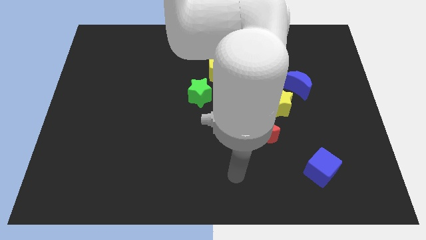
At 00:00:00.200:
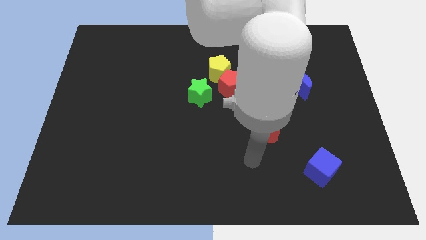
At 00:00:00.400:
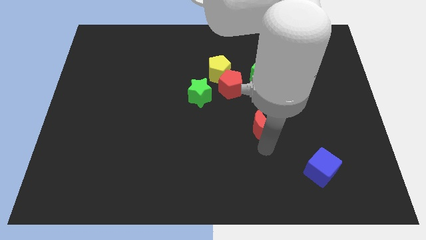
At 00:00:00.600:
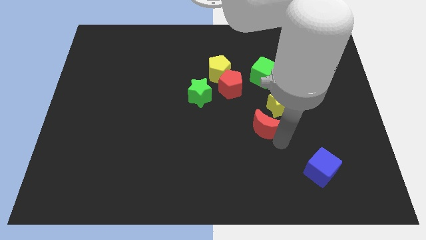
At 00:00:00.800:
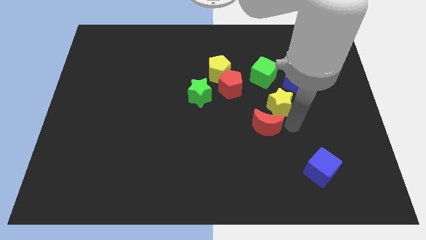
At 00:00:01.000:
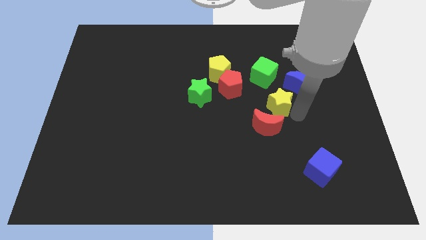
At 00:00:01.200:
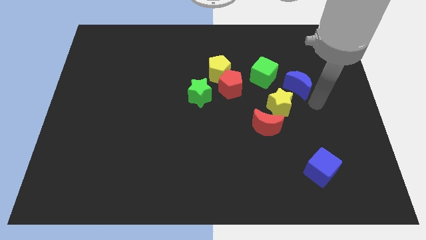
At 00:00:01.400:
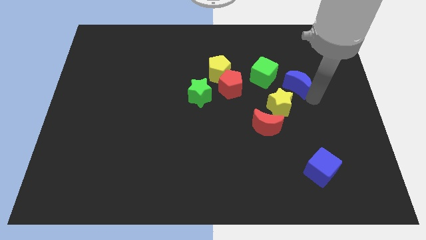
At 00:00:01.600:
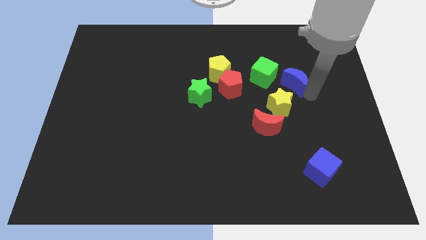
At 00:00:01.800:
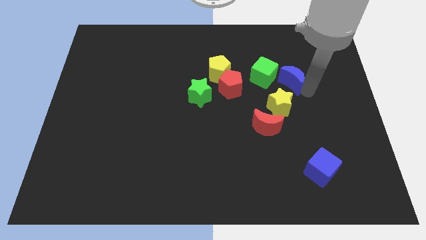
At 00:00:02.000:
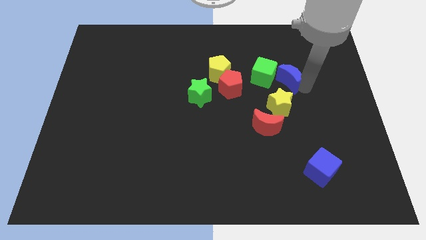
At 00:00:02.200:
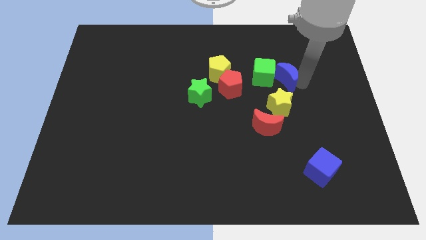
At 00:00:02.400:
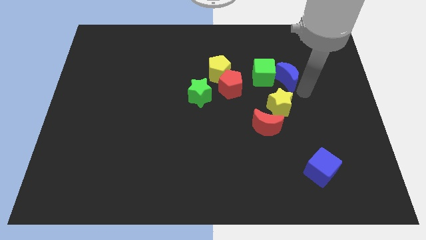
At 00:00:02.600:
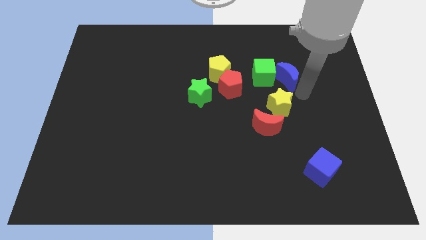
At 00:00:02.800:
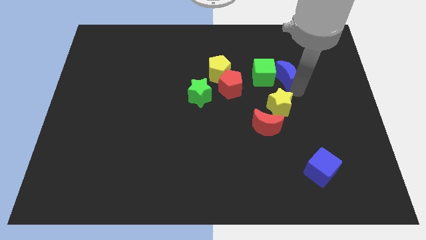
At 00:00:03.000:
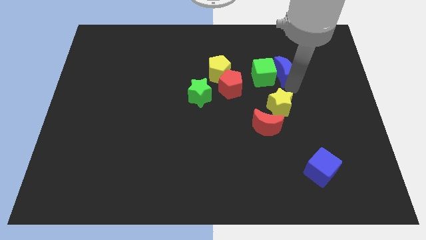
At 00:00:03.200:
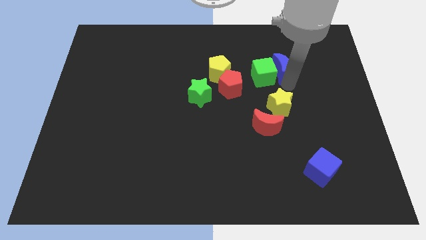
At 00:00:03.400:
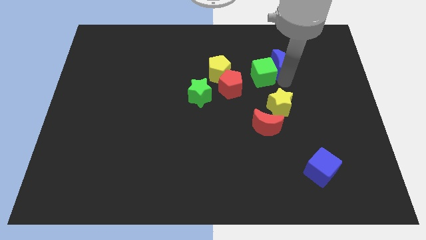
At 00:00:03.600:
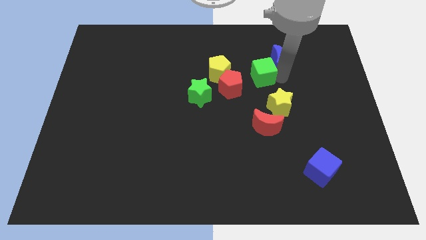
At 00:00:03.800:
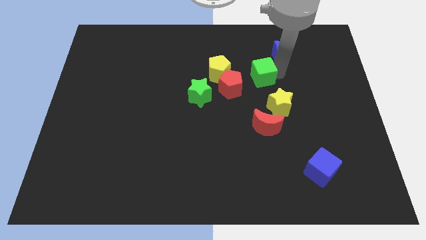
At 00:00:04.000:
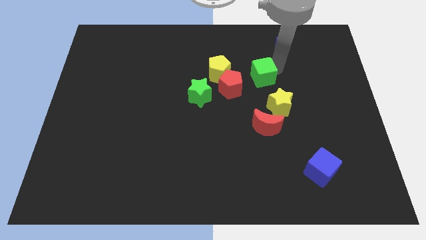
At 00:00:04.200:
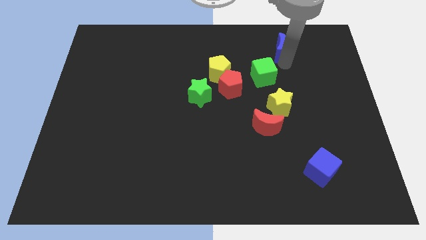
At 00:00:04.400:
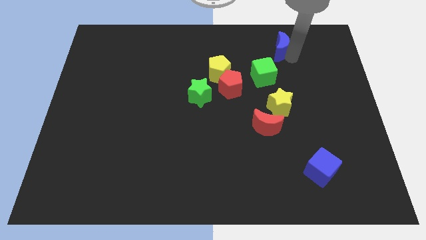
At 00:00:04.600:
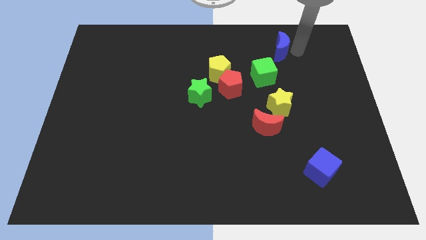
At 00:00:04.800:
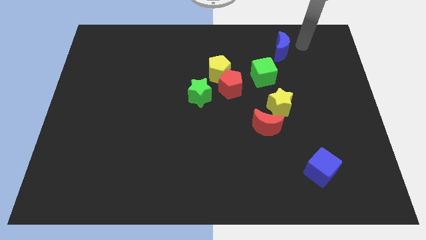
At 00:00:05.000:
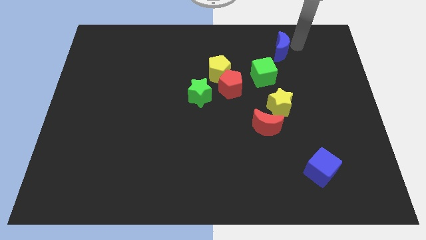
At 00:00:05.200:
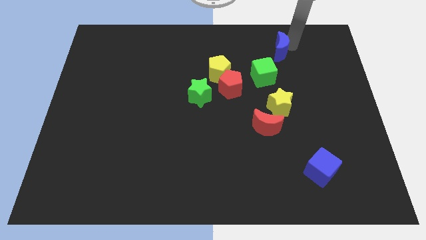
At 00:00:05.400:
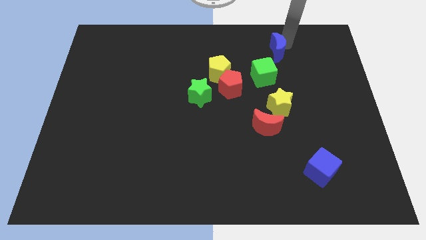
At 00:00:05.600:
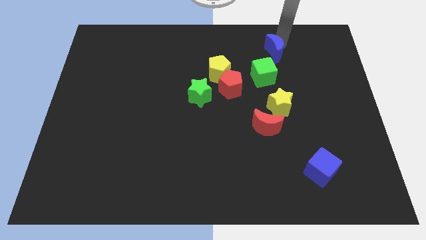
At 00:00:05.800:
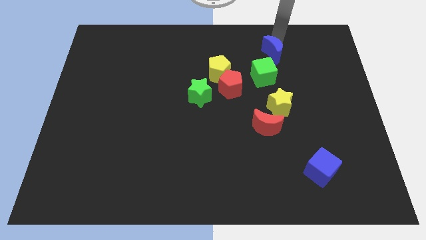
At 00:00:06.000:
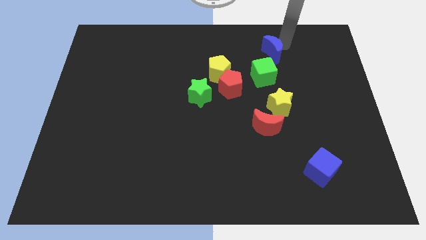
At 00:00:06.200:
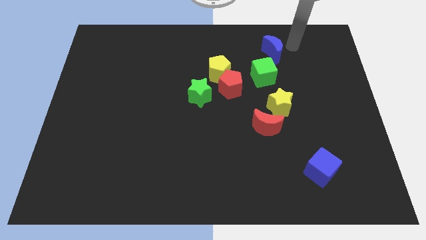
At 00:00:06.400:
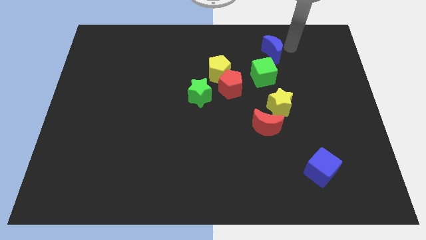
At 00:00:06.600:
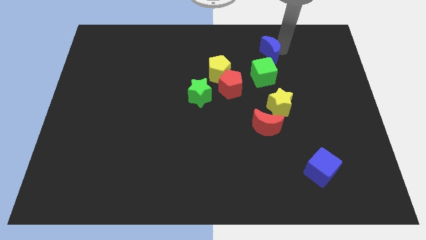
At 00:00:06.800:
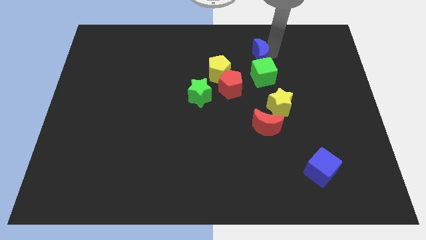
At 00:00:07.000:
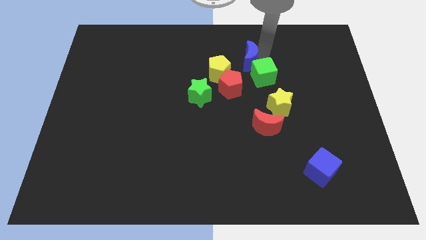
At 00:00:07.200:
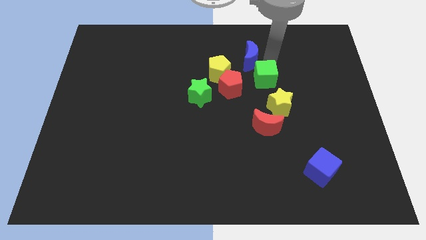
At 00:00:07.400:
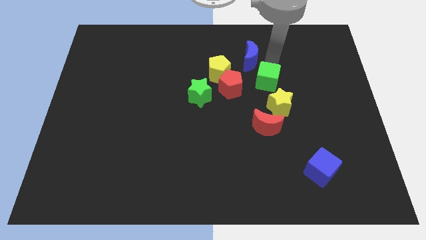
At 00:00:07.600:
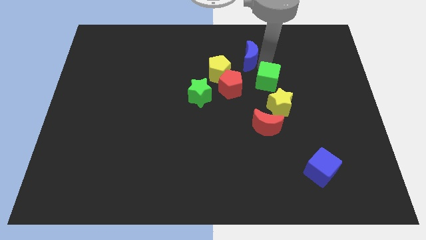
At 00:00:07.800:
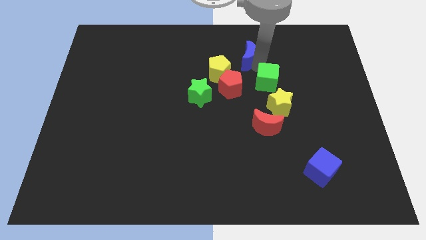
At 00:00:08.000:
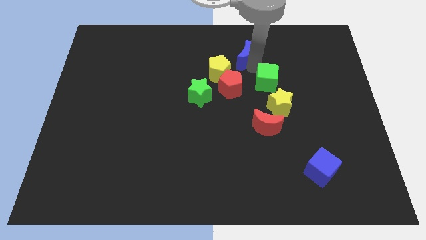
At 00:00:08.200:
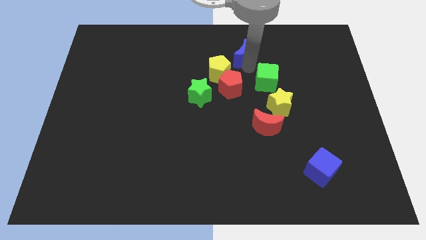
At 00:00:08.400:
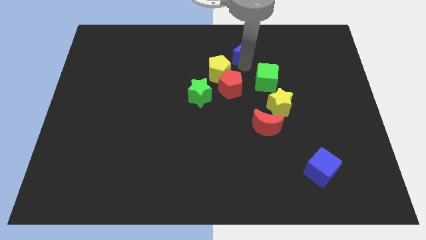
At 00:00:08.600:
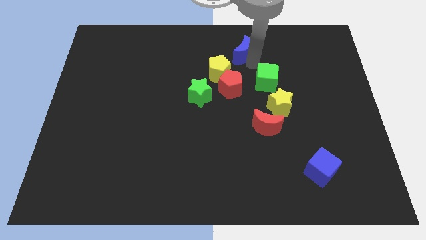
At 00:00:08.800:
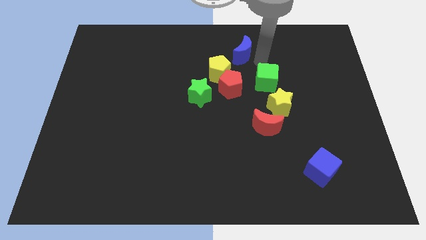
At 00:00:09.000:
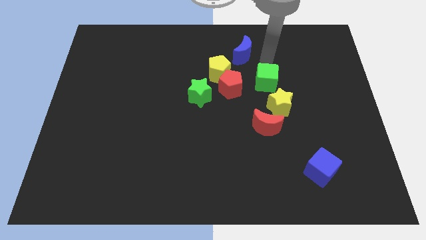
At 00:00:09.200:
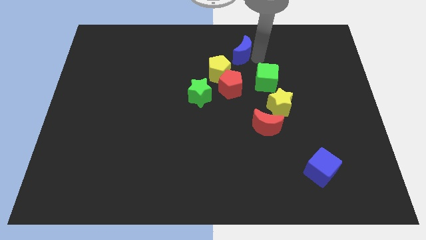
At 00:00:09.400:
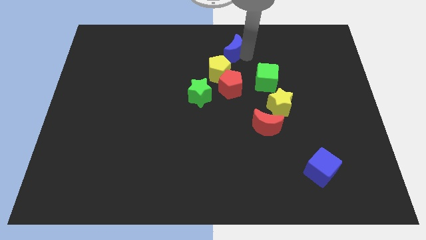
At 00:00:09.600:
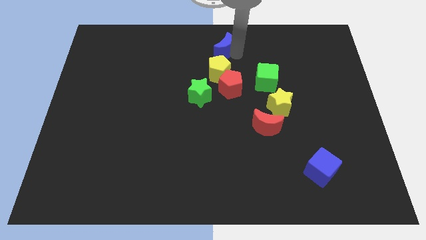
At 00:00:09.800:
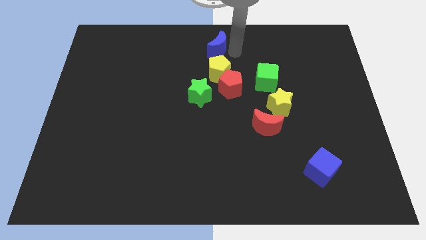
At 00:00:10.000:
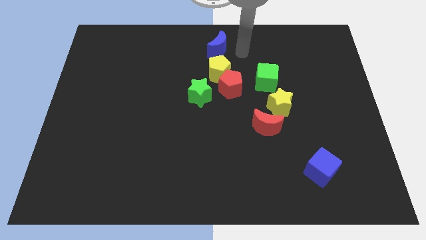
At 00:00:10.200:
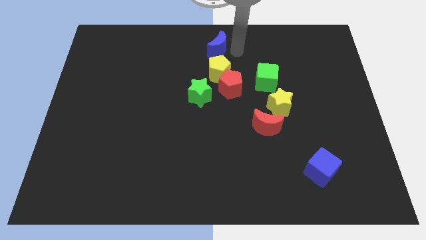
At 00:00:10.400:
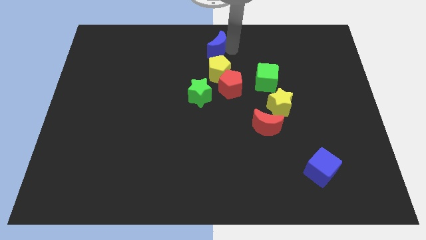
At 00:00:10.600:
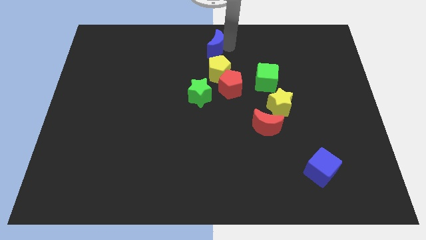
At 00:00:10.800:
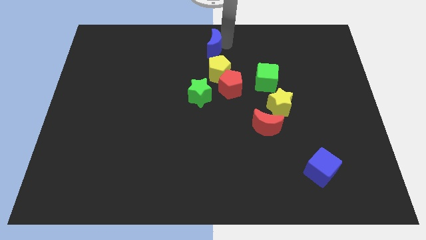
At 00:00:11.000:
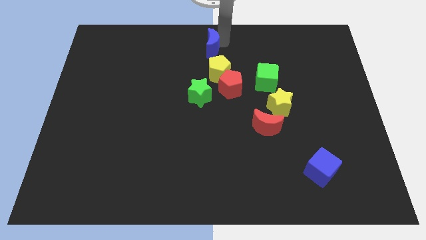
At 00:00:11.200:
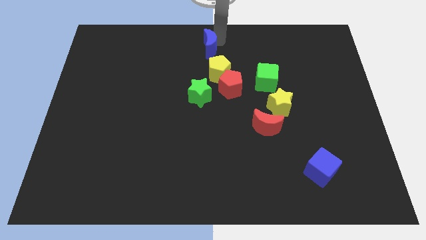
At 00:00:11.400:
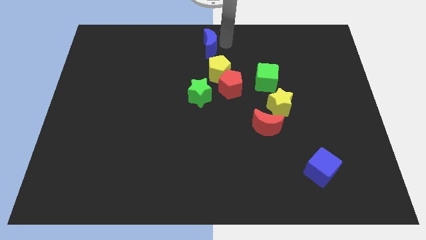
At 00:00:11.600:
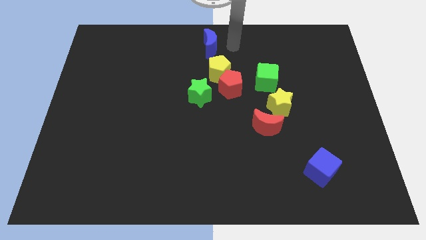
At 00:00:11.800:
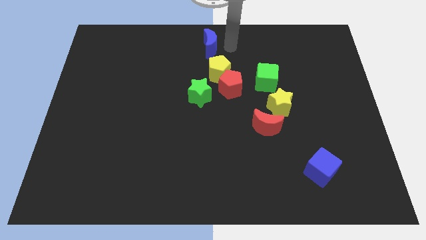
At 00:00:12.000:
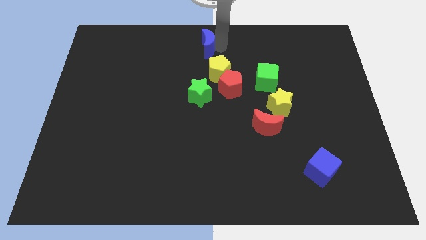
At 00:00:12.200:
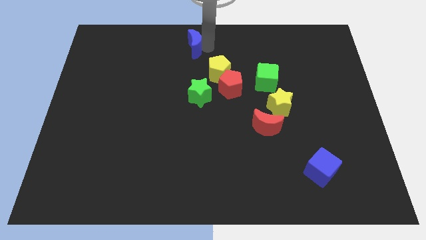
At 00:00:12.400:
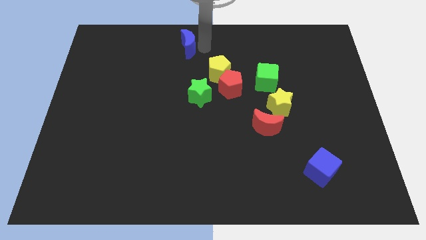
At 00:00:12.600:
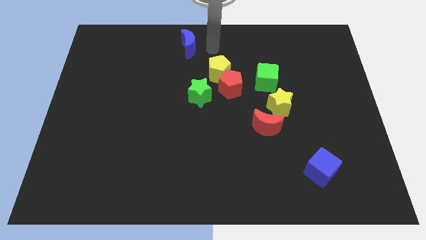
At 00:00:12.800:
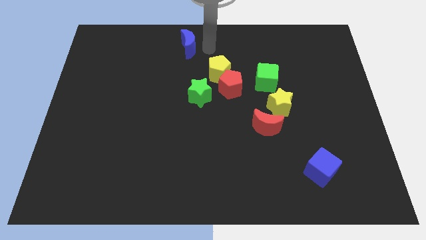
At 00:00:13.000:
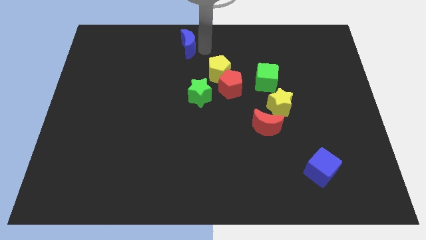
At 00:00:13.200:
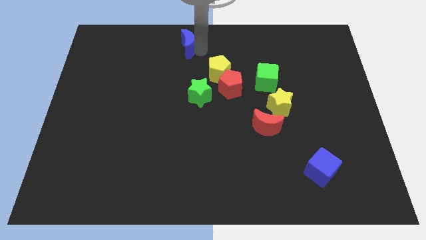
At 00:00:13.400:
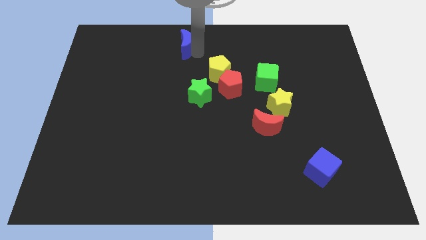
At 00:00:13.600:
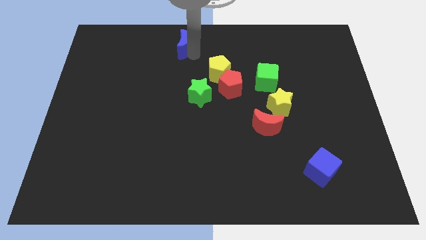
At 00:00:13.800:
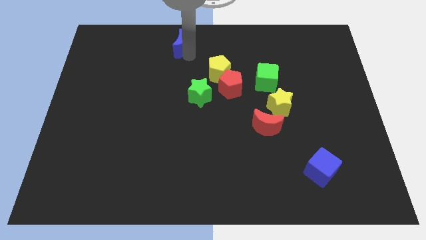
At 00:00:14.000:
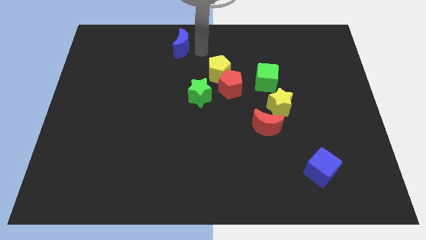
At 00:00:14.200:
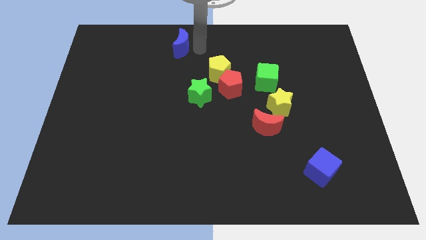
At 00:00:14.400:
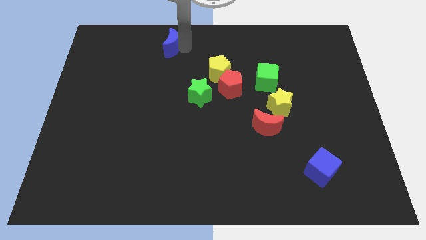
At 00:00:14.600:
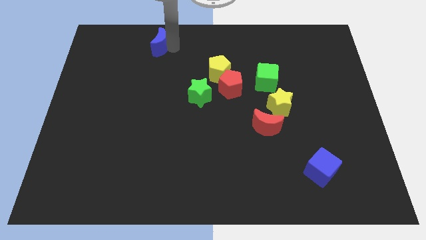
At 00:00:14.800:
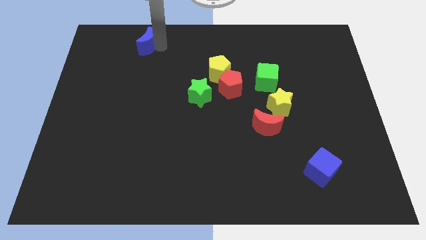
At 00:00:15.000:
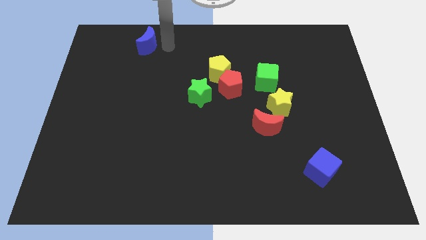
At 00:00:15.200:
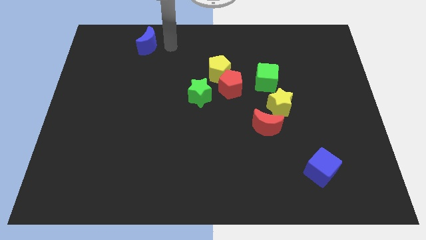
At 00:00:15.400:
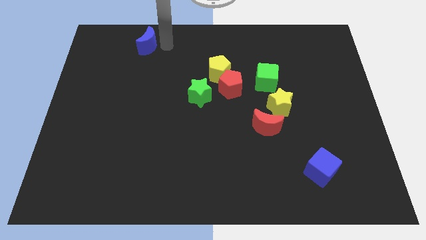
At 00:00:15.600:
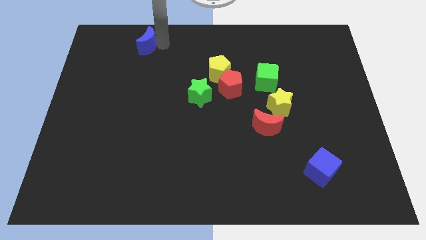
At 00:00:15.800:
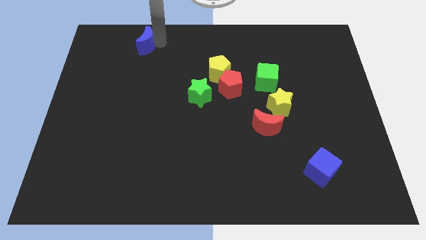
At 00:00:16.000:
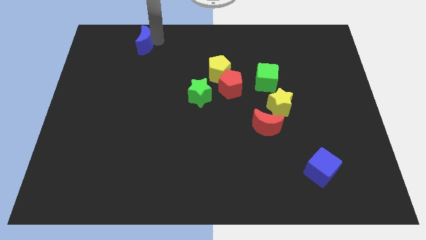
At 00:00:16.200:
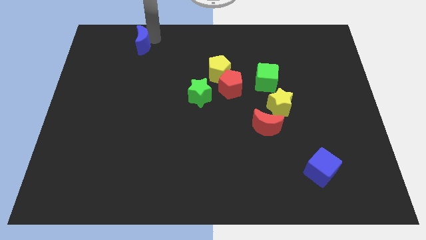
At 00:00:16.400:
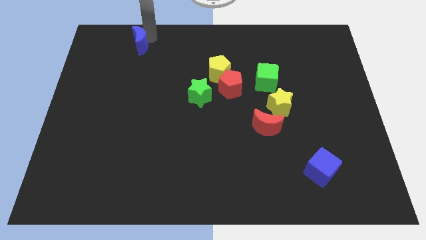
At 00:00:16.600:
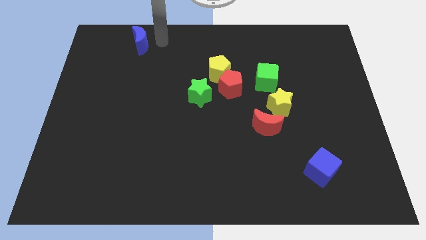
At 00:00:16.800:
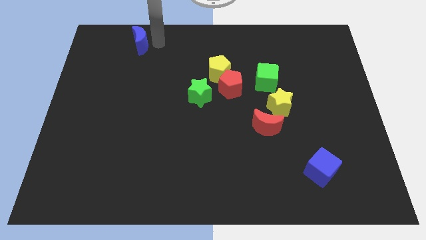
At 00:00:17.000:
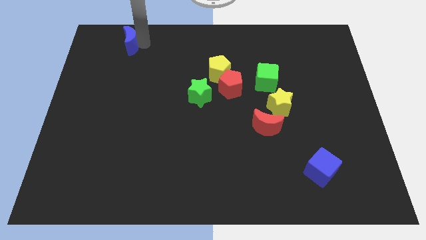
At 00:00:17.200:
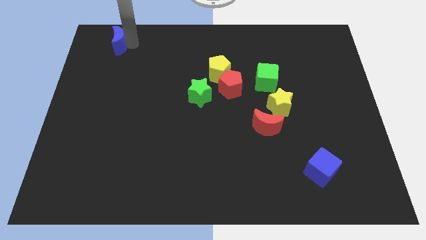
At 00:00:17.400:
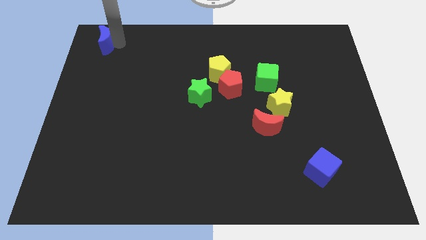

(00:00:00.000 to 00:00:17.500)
push the blue moon to the top left
